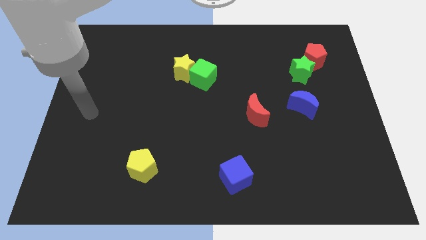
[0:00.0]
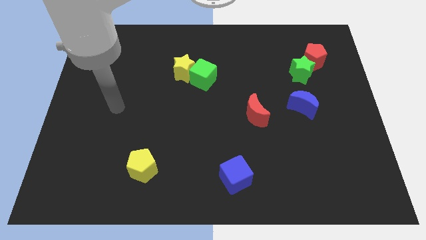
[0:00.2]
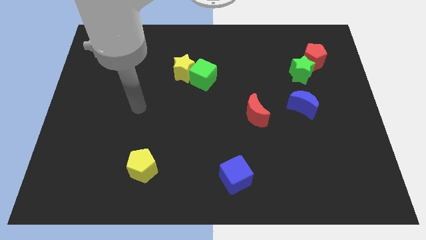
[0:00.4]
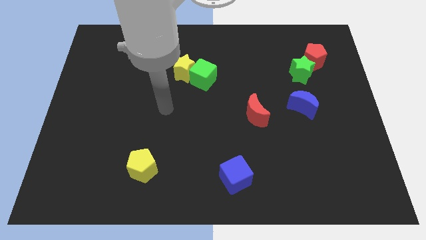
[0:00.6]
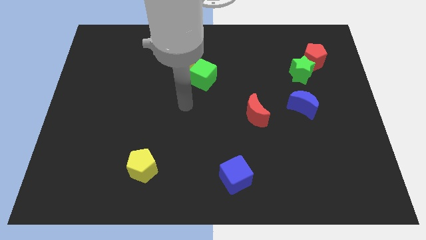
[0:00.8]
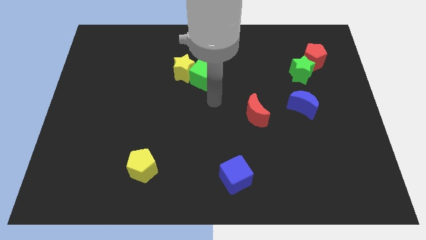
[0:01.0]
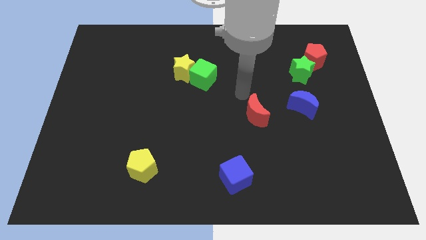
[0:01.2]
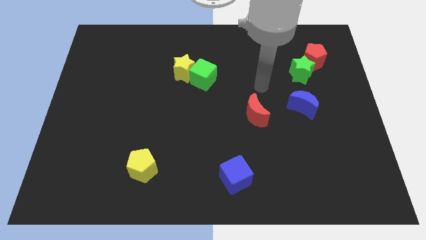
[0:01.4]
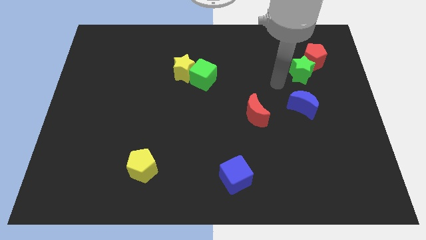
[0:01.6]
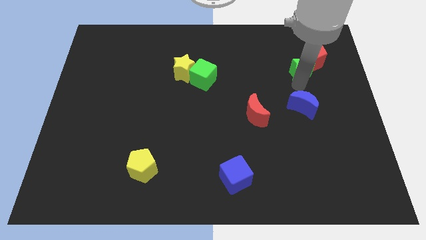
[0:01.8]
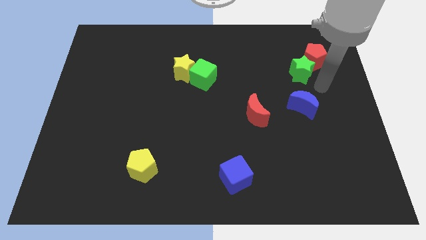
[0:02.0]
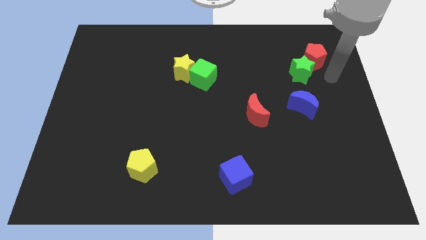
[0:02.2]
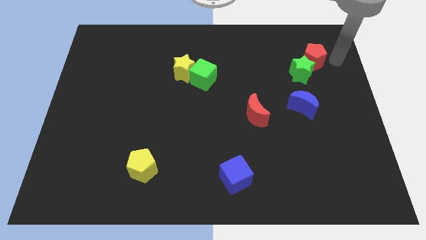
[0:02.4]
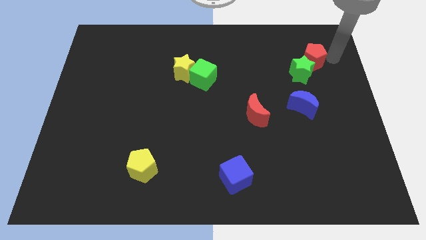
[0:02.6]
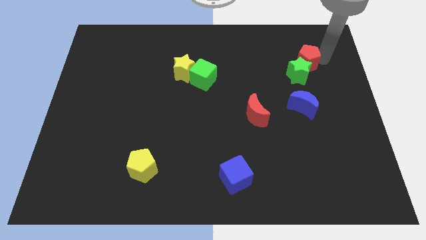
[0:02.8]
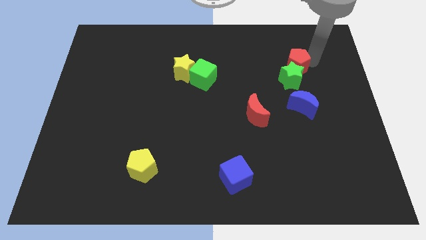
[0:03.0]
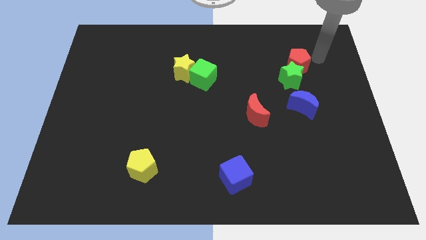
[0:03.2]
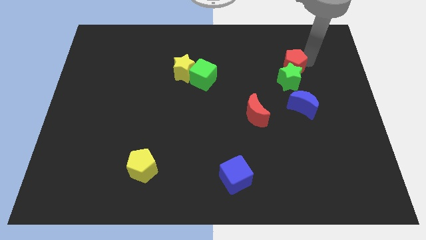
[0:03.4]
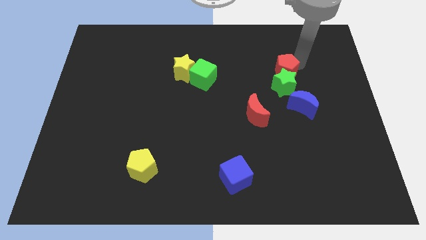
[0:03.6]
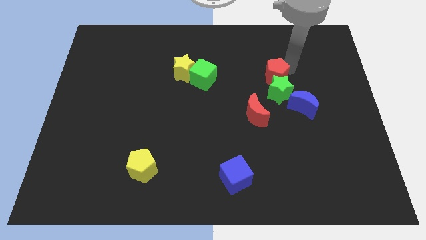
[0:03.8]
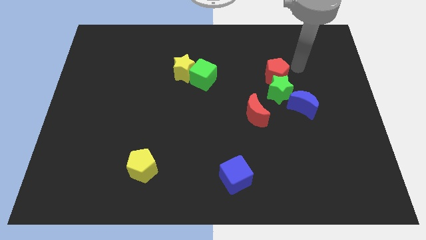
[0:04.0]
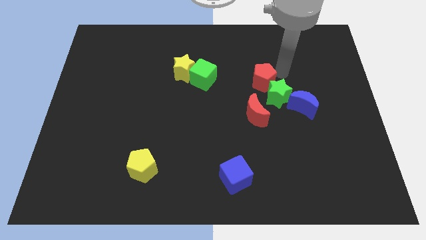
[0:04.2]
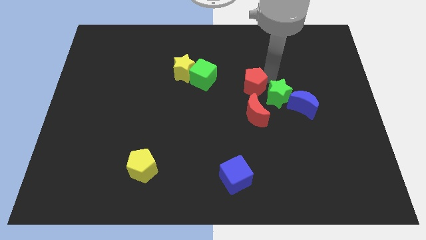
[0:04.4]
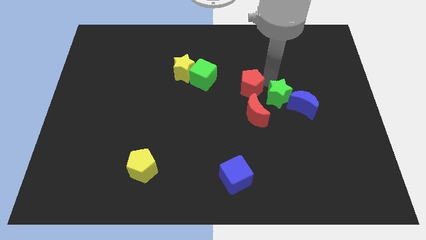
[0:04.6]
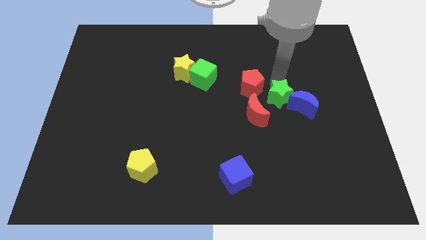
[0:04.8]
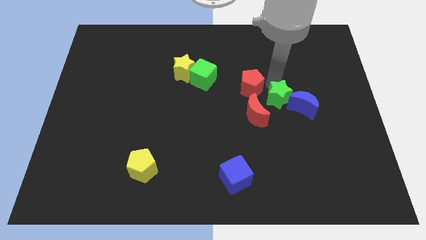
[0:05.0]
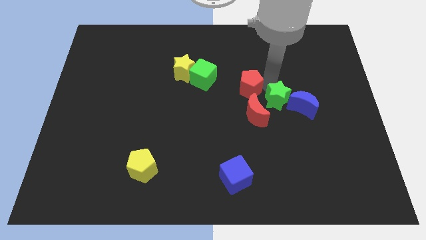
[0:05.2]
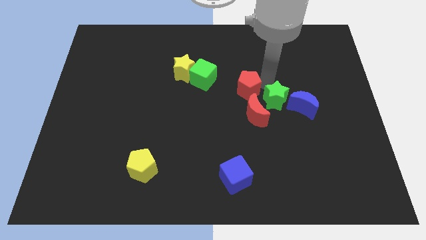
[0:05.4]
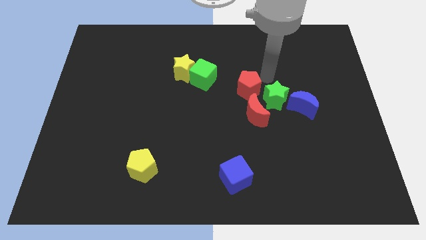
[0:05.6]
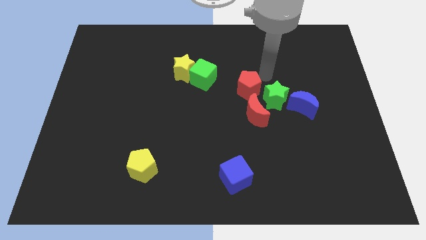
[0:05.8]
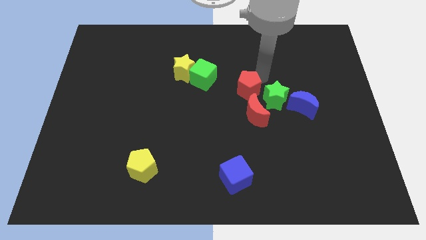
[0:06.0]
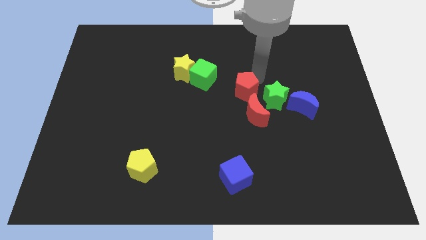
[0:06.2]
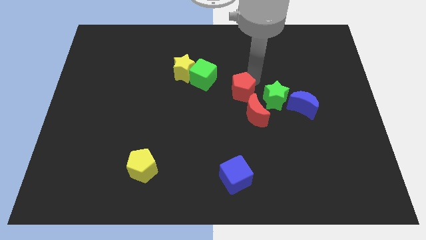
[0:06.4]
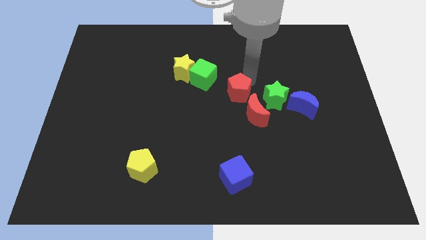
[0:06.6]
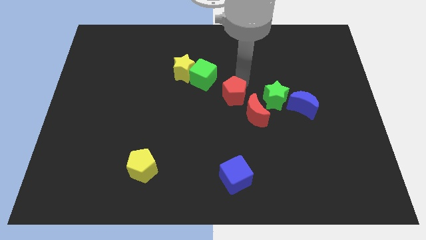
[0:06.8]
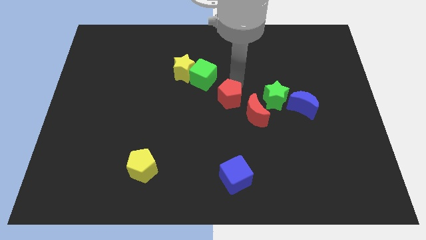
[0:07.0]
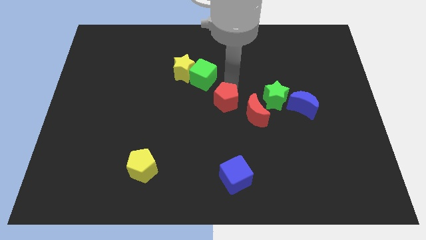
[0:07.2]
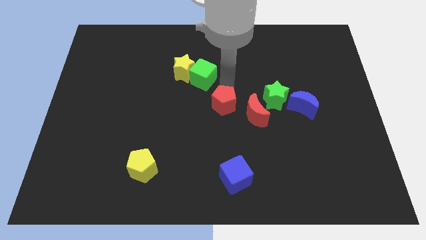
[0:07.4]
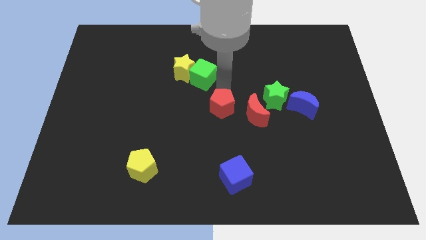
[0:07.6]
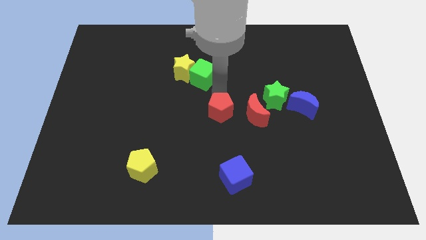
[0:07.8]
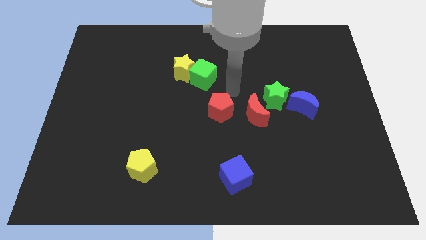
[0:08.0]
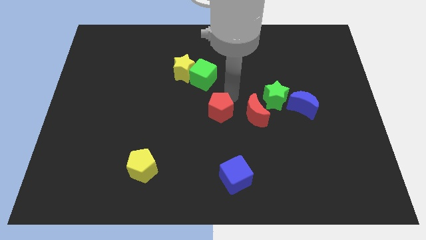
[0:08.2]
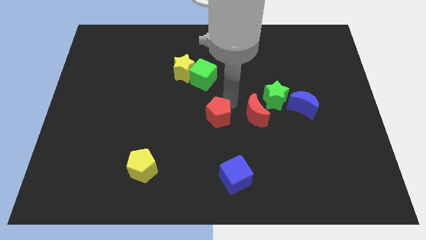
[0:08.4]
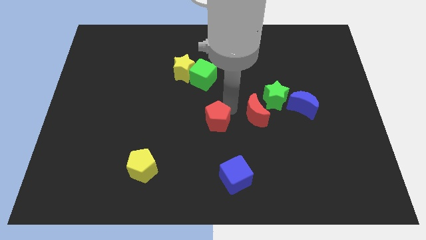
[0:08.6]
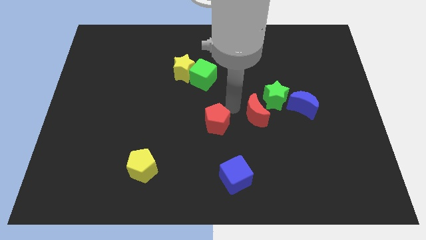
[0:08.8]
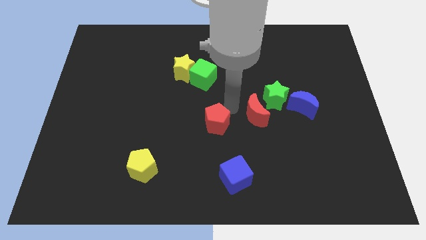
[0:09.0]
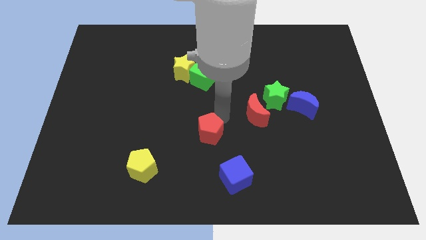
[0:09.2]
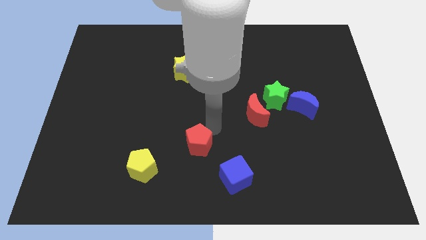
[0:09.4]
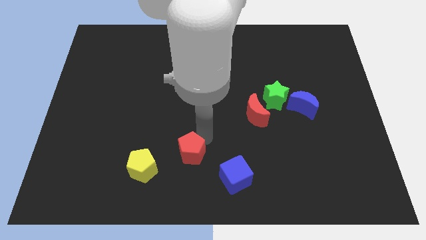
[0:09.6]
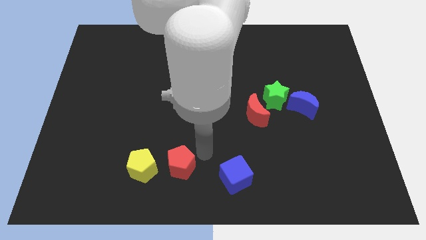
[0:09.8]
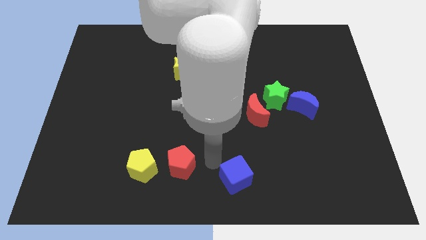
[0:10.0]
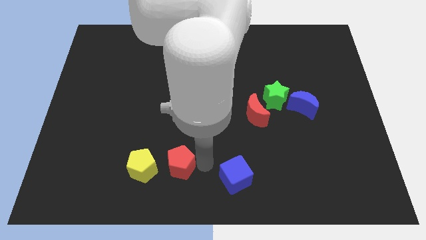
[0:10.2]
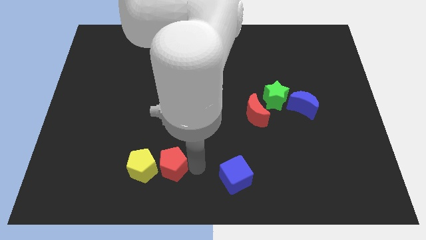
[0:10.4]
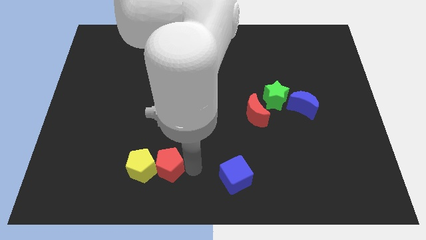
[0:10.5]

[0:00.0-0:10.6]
slide the red pentagon towards the yellow pentagon

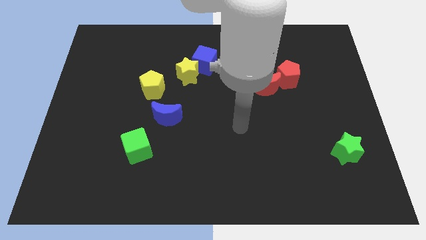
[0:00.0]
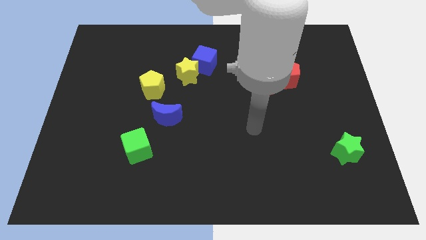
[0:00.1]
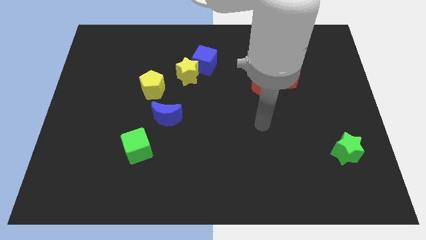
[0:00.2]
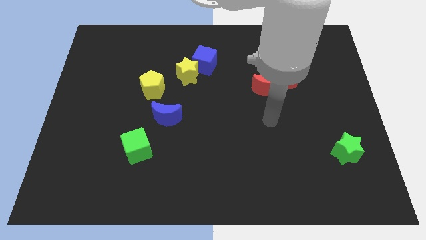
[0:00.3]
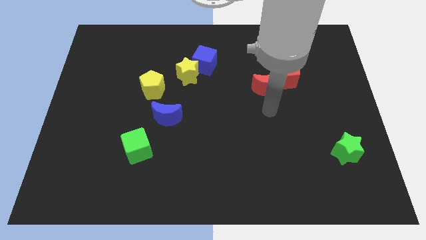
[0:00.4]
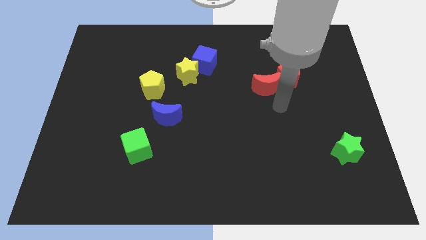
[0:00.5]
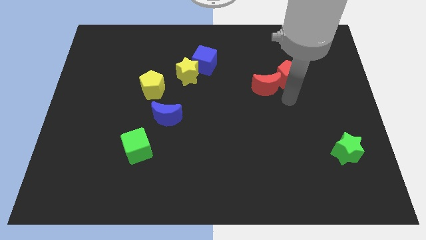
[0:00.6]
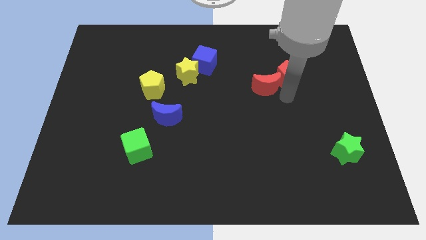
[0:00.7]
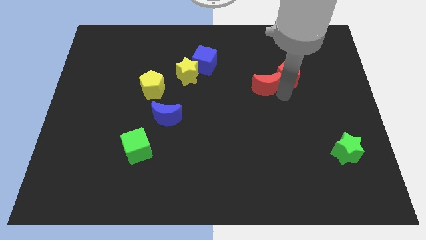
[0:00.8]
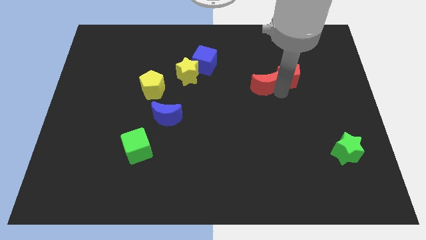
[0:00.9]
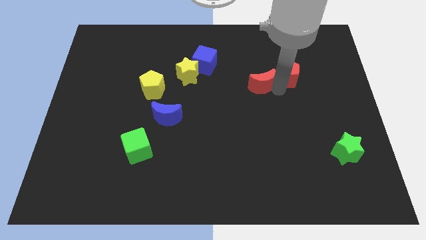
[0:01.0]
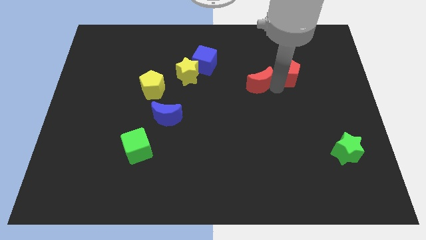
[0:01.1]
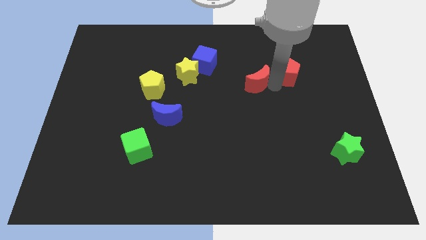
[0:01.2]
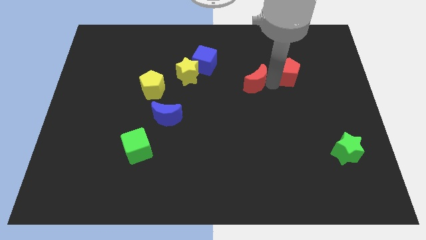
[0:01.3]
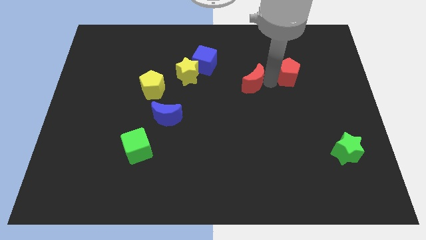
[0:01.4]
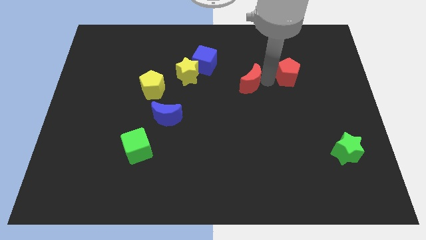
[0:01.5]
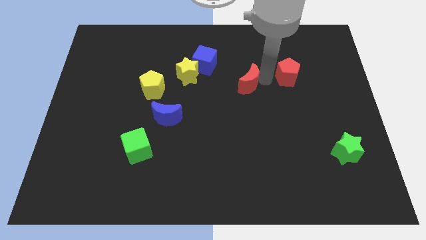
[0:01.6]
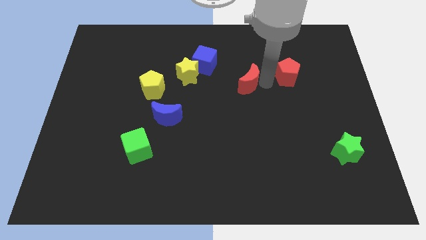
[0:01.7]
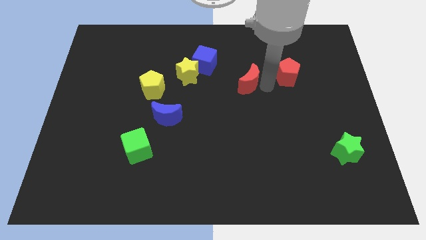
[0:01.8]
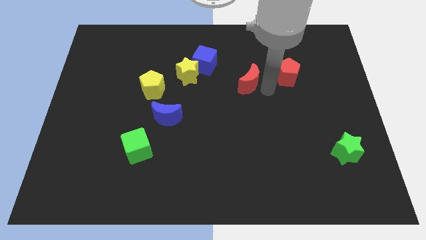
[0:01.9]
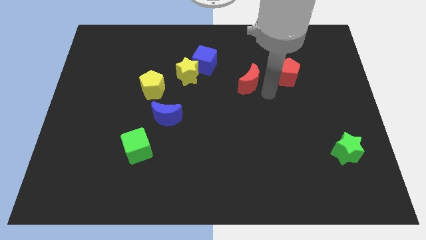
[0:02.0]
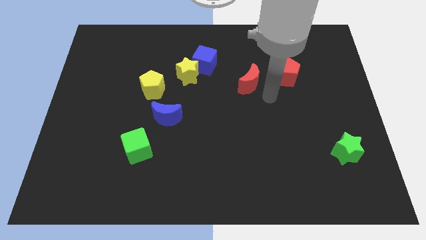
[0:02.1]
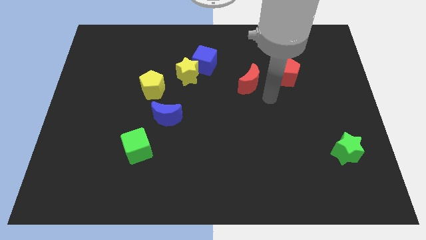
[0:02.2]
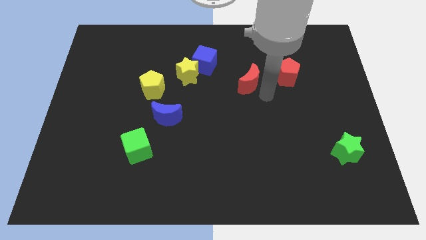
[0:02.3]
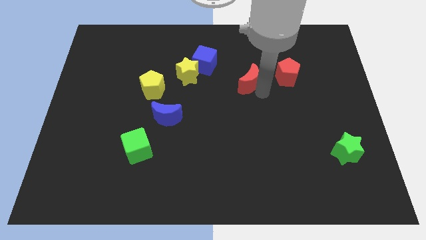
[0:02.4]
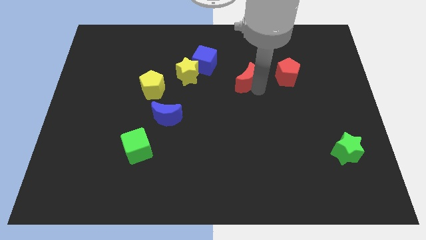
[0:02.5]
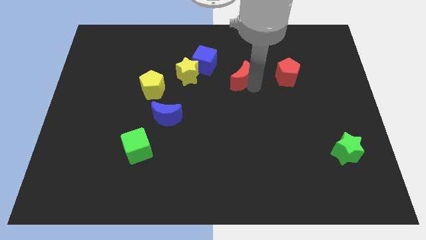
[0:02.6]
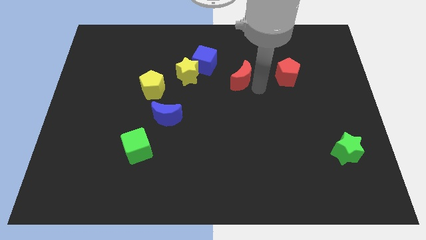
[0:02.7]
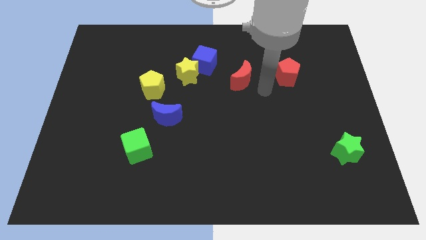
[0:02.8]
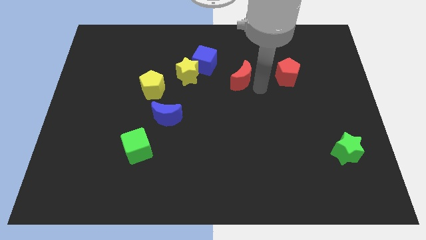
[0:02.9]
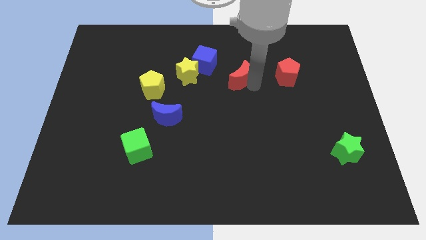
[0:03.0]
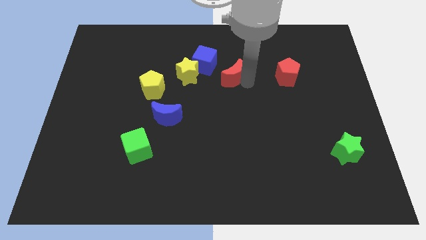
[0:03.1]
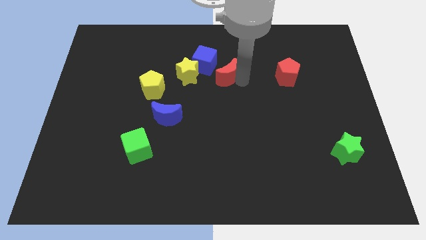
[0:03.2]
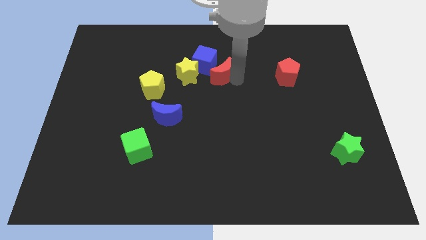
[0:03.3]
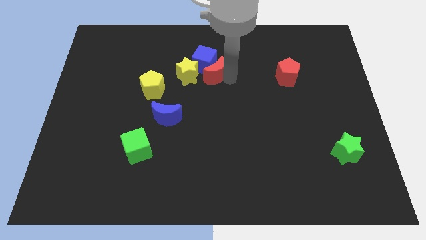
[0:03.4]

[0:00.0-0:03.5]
push the red moon to the blue cube
